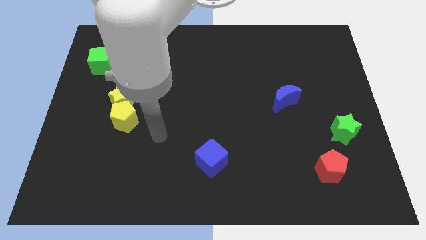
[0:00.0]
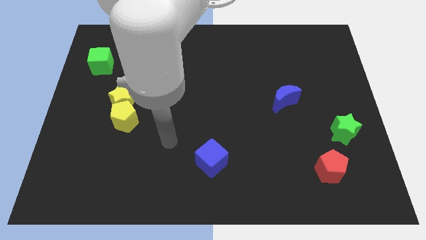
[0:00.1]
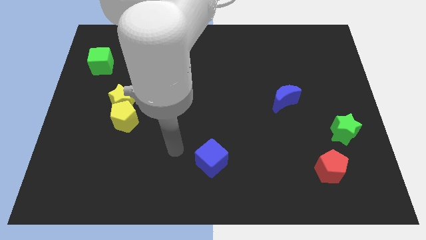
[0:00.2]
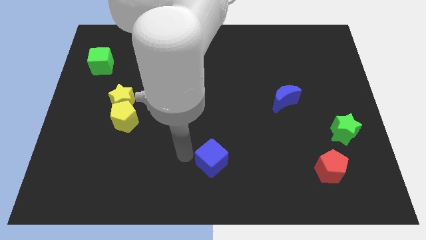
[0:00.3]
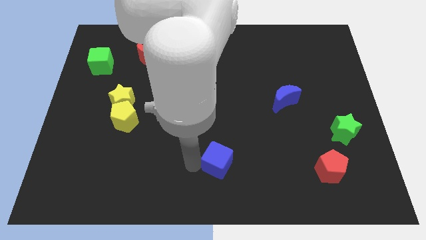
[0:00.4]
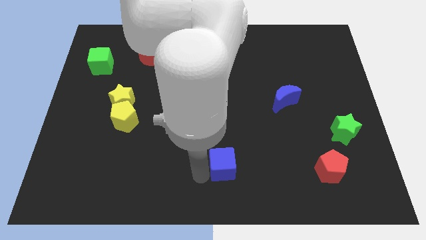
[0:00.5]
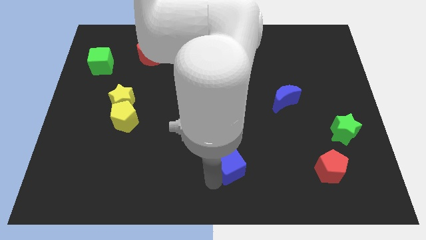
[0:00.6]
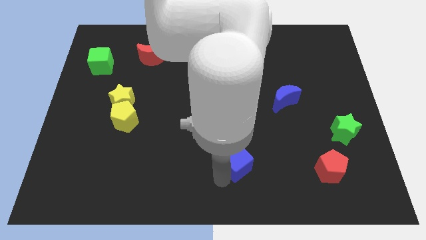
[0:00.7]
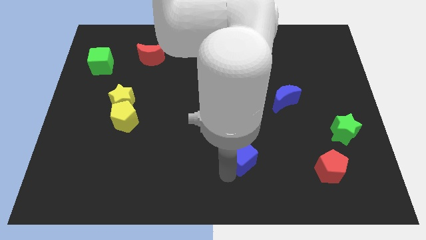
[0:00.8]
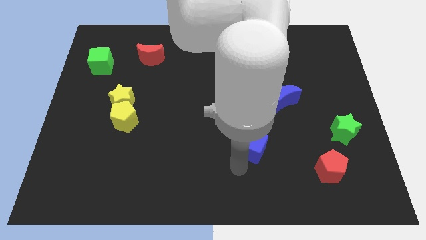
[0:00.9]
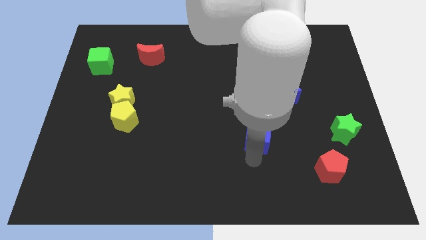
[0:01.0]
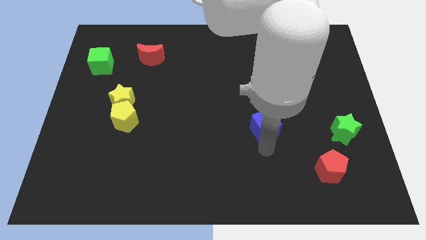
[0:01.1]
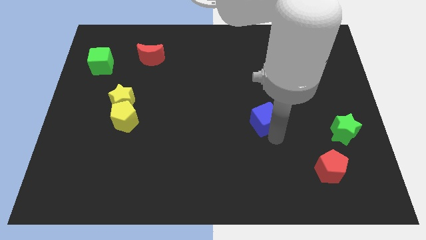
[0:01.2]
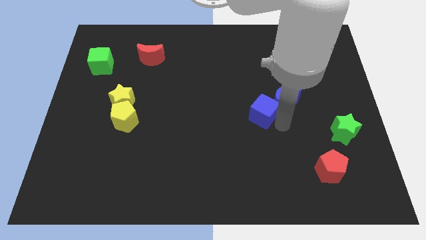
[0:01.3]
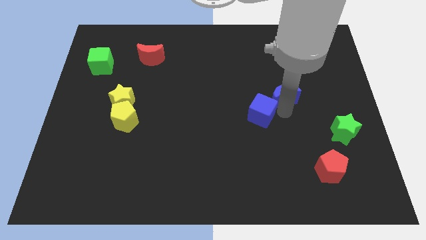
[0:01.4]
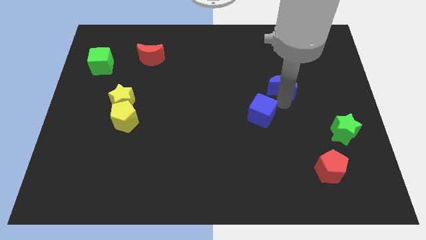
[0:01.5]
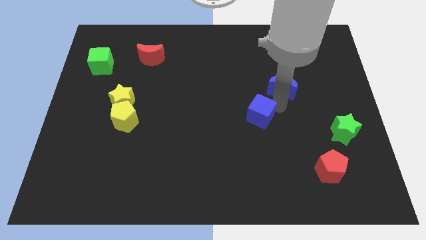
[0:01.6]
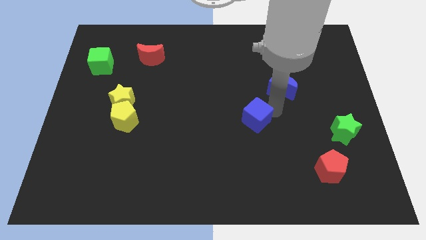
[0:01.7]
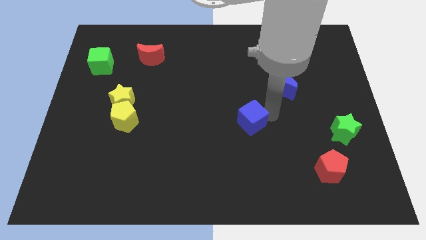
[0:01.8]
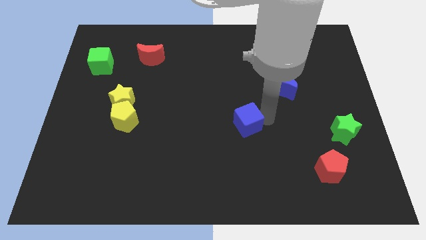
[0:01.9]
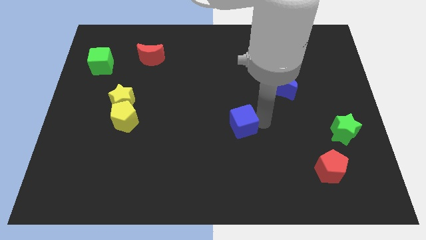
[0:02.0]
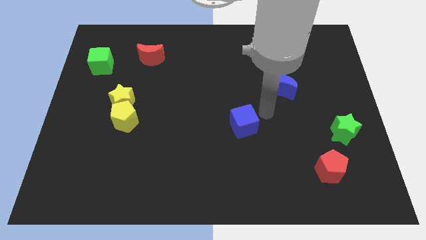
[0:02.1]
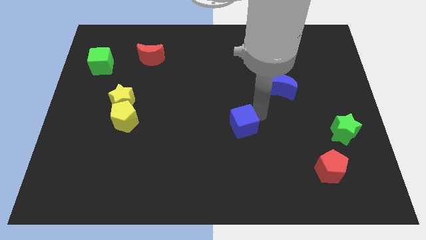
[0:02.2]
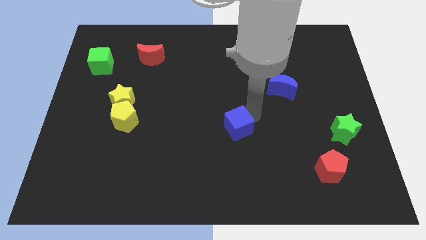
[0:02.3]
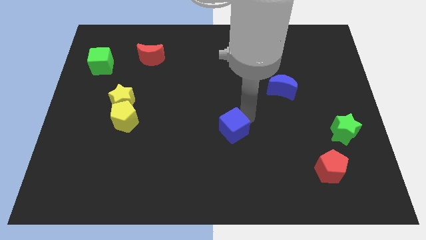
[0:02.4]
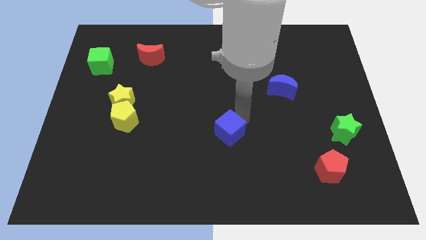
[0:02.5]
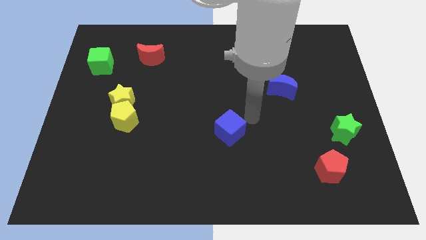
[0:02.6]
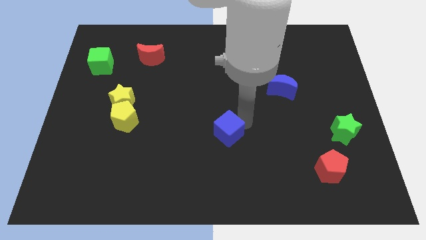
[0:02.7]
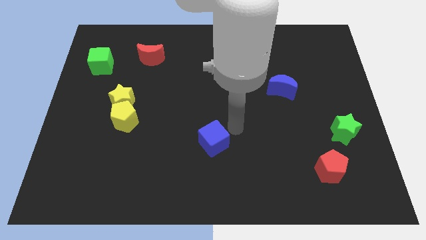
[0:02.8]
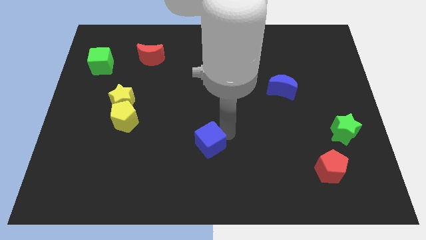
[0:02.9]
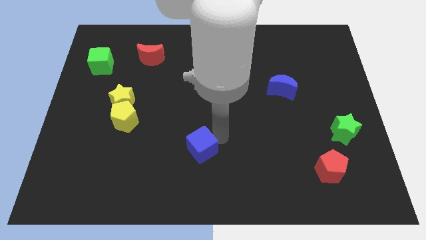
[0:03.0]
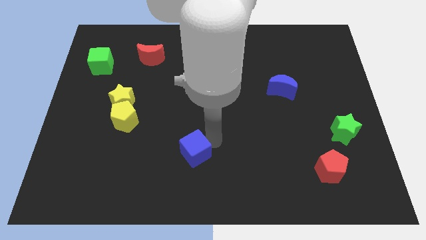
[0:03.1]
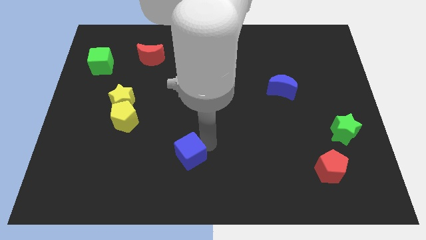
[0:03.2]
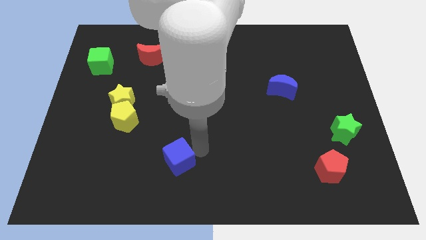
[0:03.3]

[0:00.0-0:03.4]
slide the blue cube left a little bit

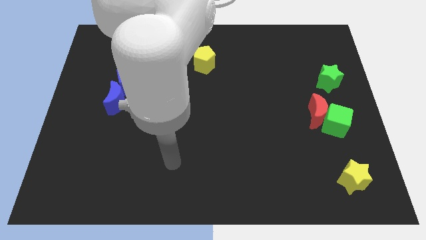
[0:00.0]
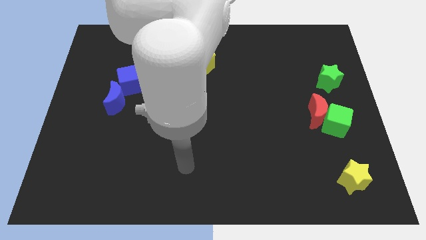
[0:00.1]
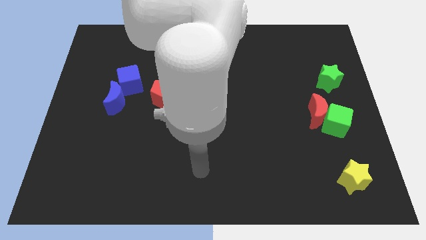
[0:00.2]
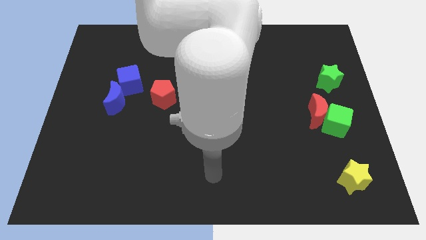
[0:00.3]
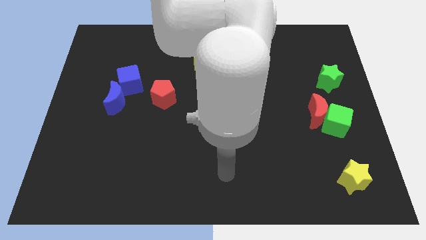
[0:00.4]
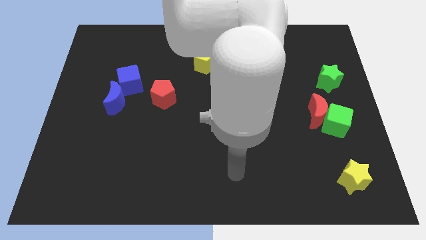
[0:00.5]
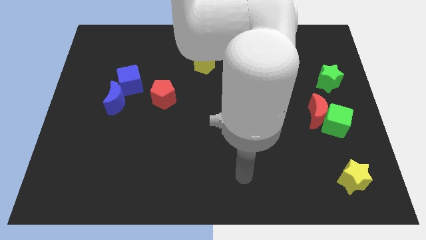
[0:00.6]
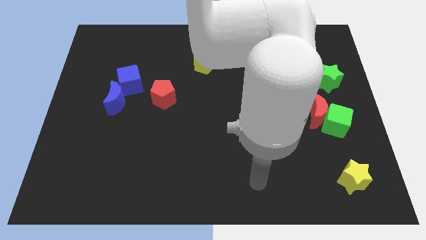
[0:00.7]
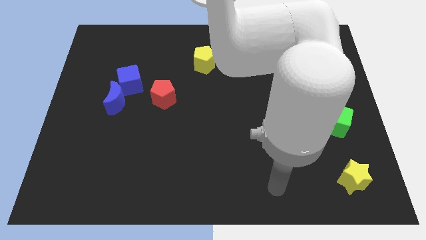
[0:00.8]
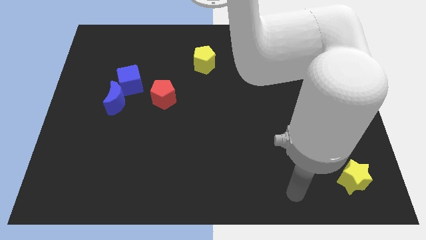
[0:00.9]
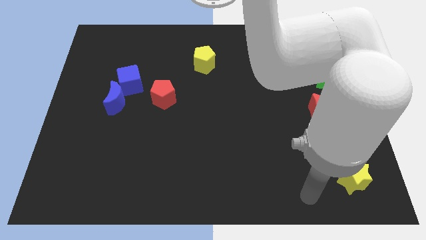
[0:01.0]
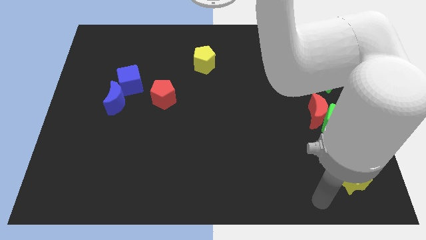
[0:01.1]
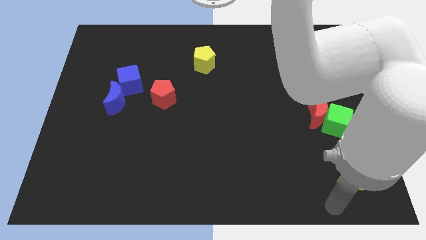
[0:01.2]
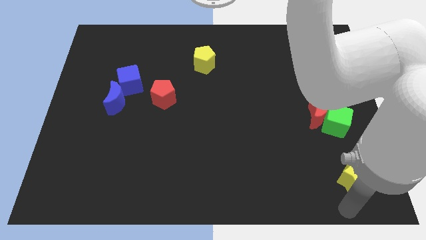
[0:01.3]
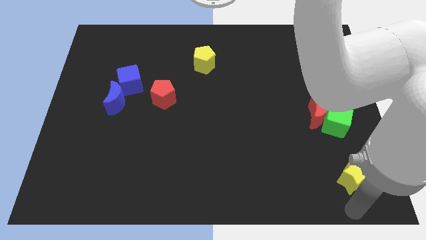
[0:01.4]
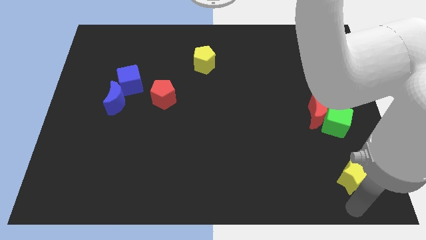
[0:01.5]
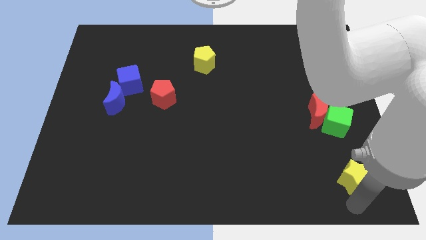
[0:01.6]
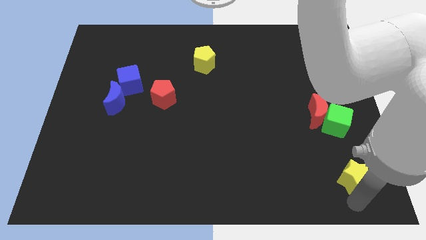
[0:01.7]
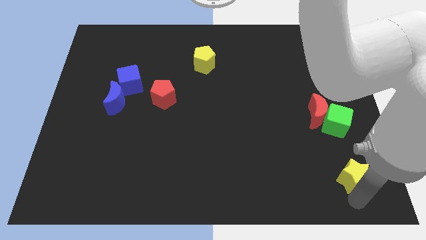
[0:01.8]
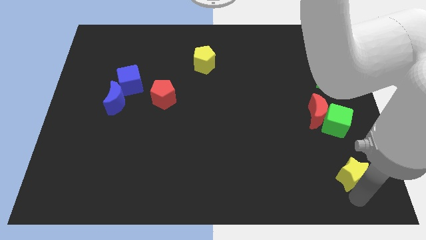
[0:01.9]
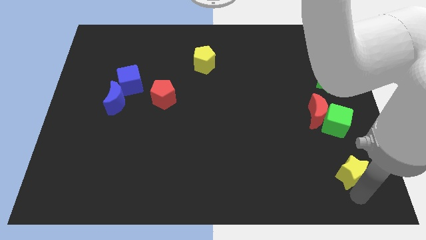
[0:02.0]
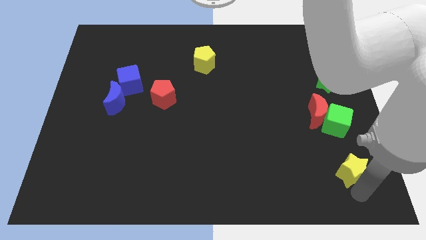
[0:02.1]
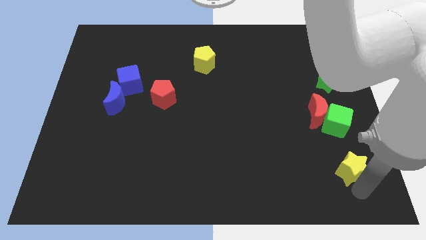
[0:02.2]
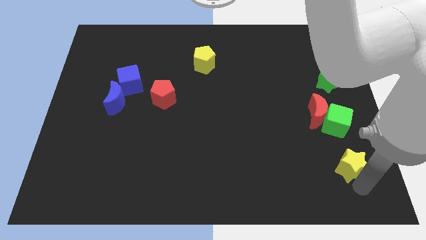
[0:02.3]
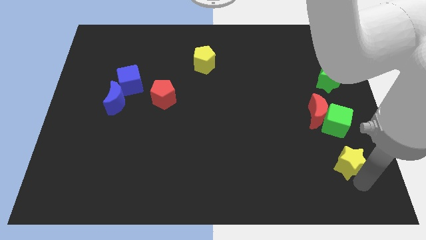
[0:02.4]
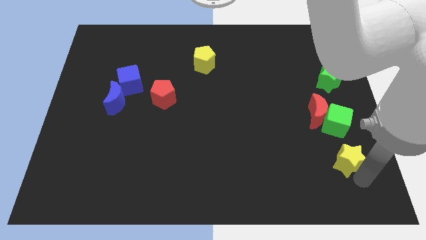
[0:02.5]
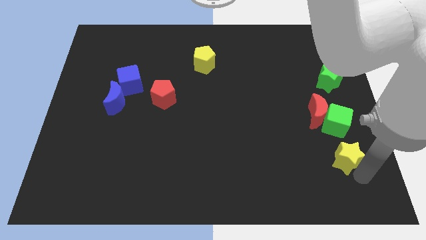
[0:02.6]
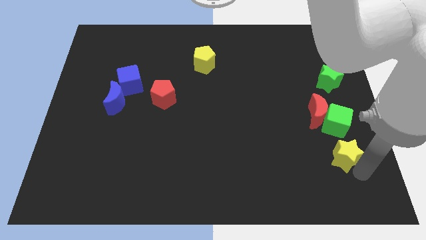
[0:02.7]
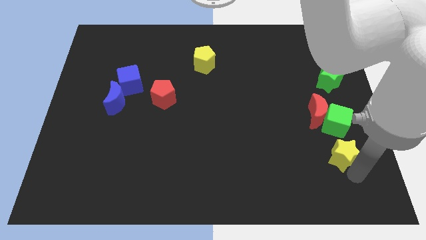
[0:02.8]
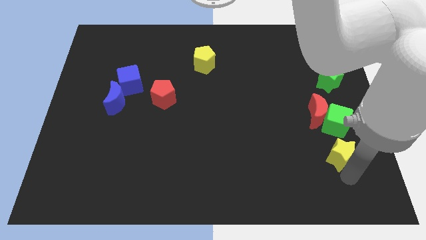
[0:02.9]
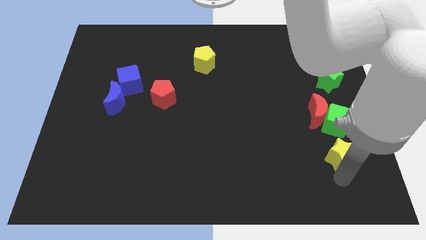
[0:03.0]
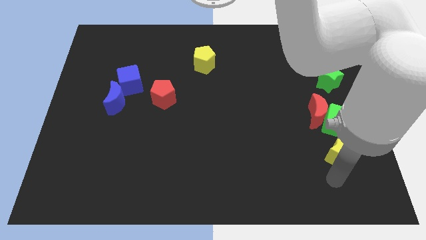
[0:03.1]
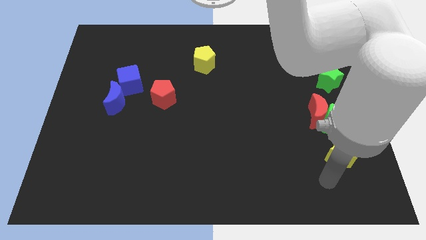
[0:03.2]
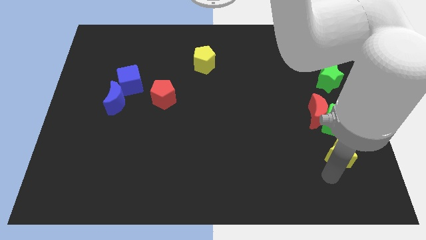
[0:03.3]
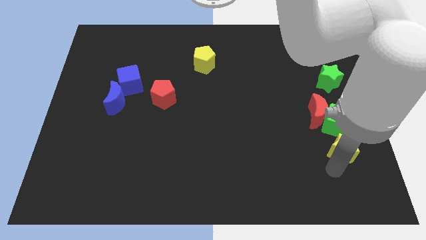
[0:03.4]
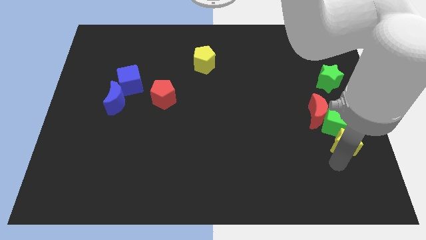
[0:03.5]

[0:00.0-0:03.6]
push the yellow star a bit upwards

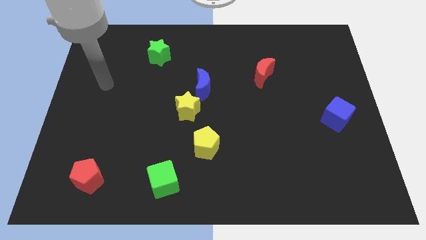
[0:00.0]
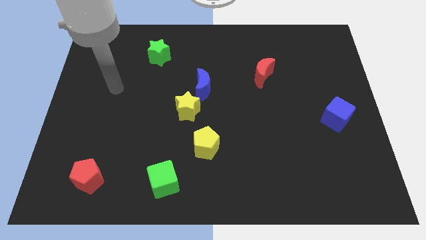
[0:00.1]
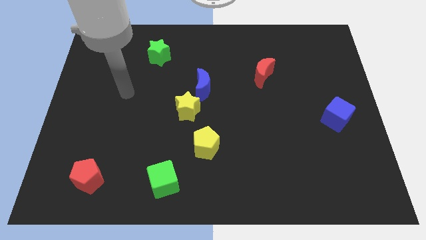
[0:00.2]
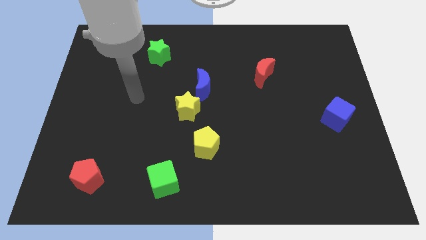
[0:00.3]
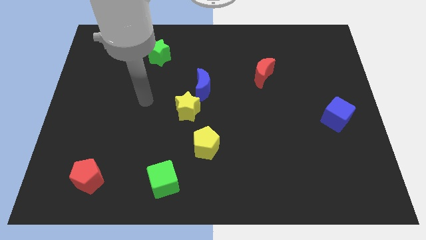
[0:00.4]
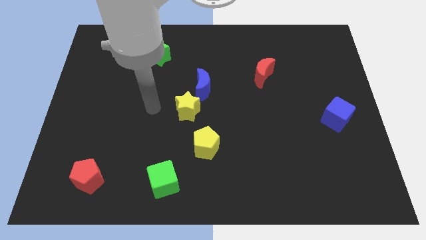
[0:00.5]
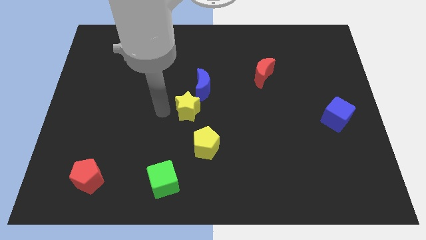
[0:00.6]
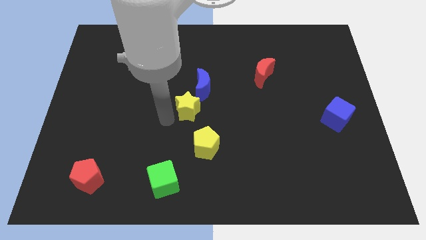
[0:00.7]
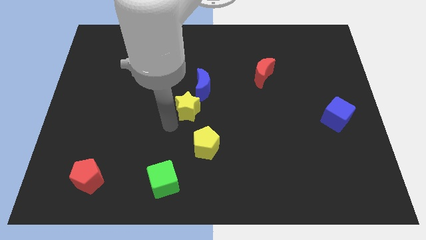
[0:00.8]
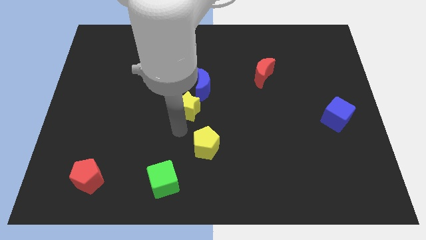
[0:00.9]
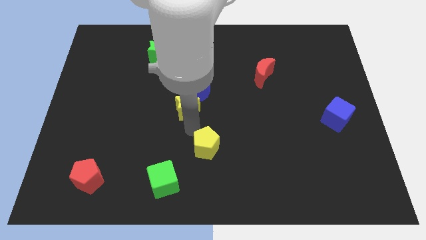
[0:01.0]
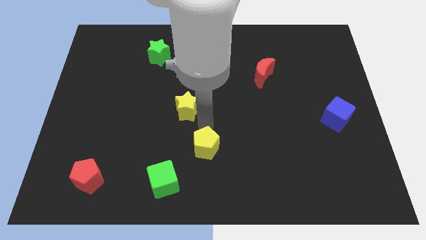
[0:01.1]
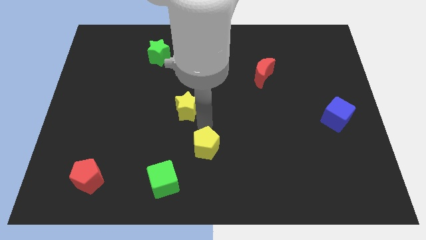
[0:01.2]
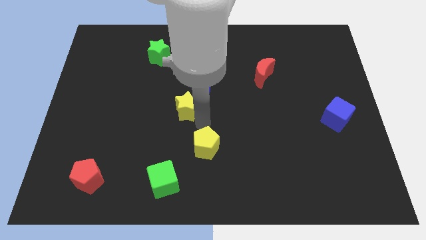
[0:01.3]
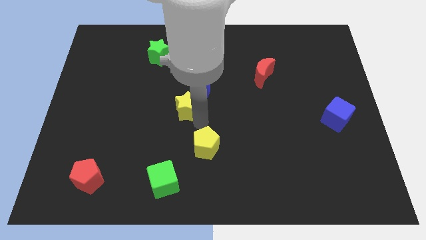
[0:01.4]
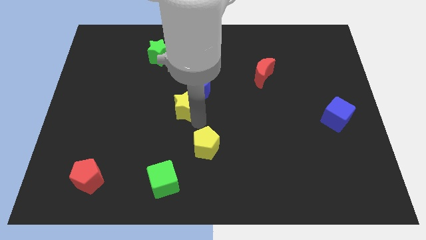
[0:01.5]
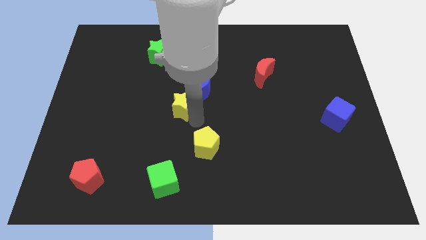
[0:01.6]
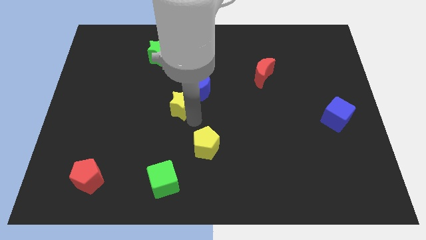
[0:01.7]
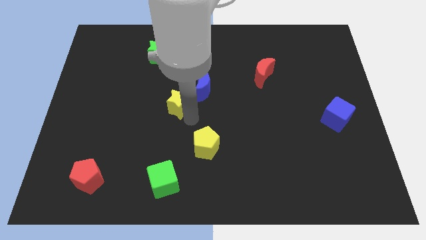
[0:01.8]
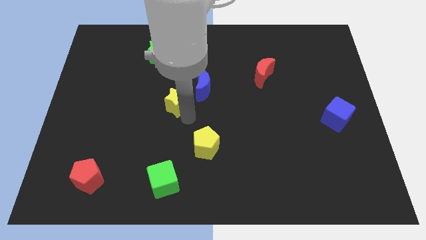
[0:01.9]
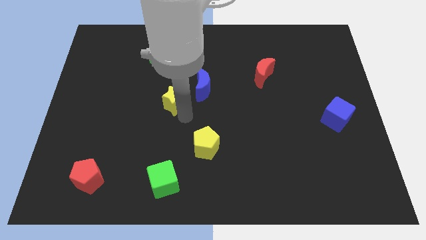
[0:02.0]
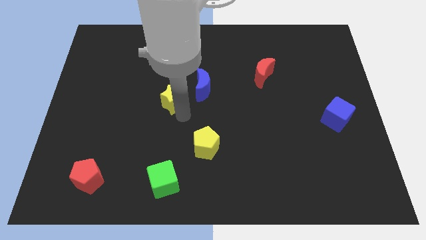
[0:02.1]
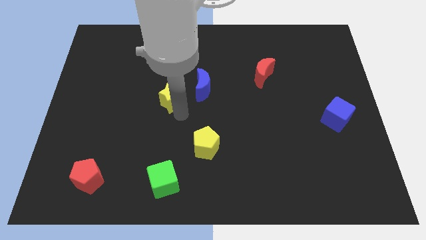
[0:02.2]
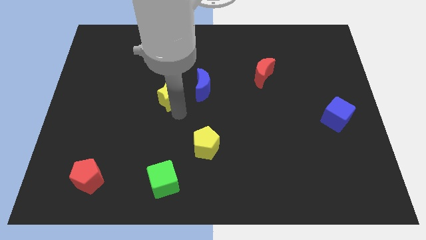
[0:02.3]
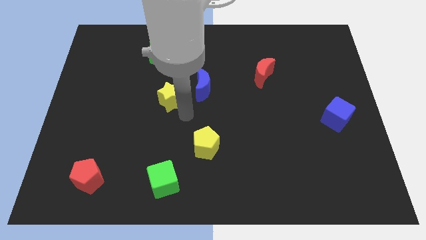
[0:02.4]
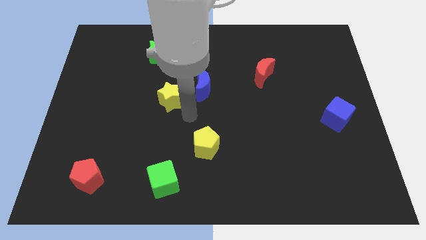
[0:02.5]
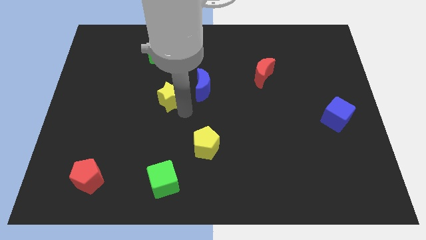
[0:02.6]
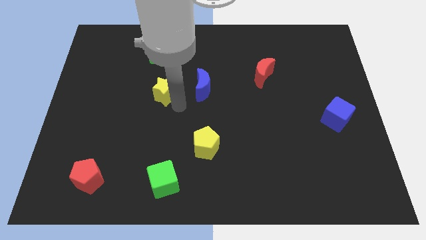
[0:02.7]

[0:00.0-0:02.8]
slide the yellow star diagonally upwards and to the left a little
